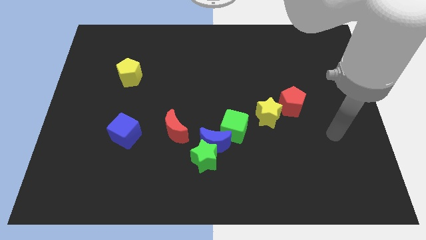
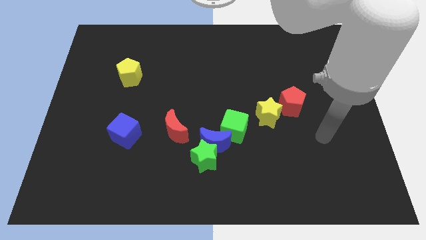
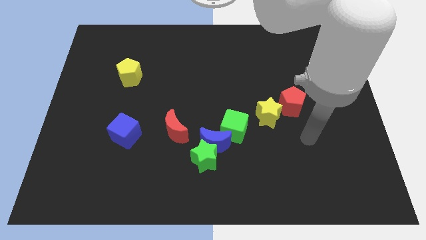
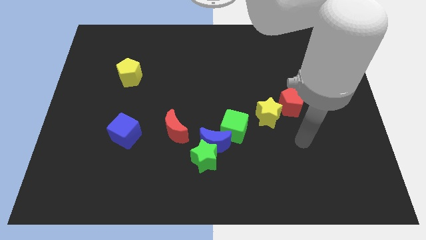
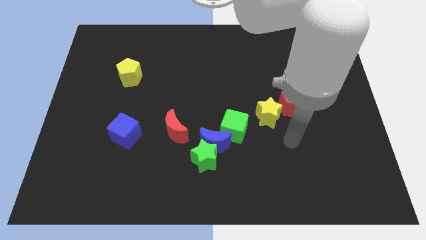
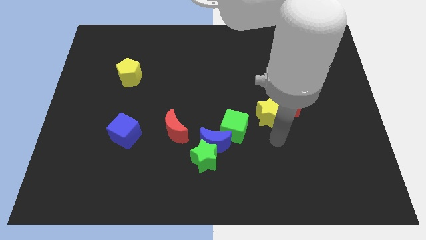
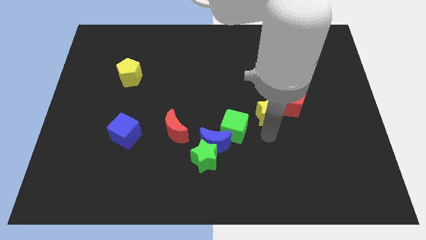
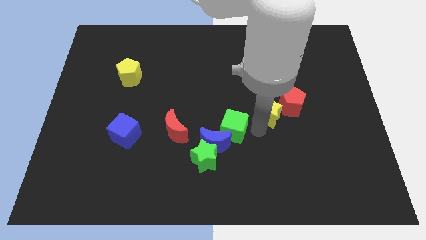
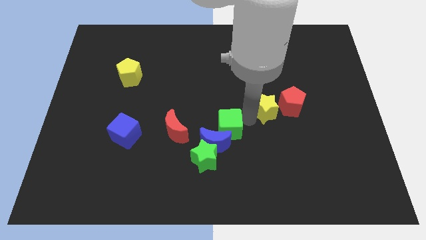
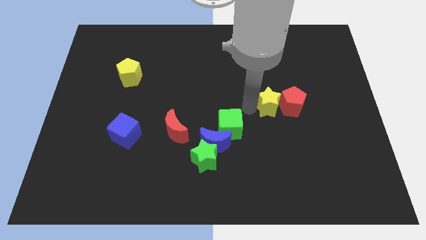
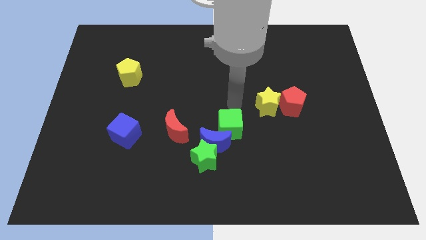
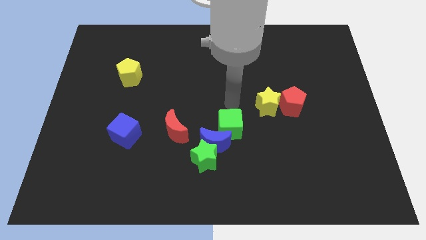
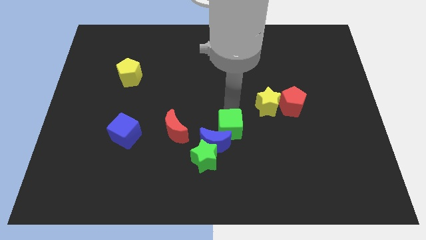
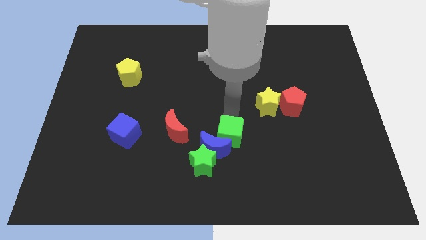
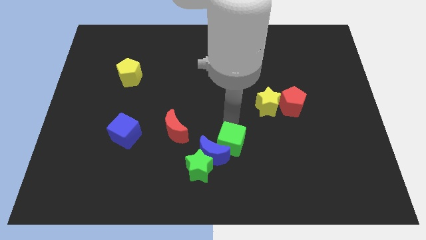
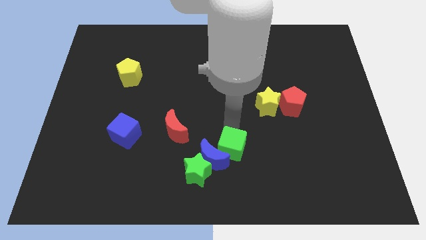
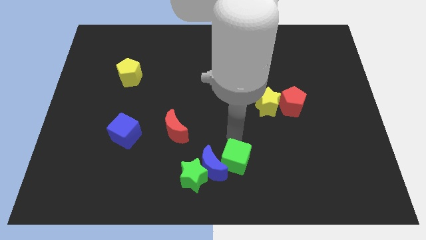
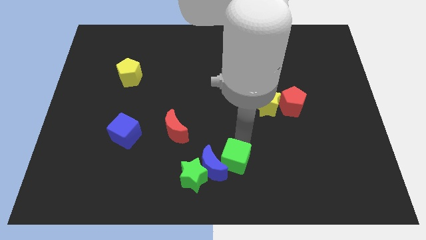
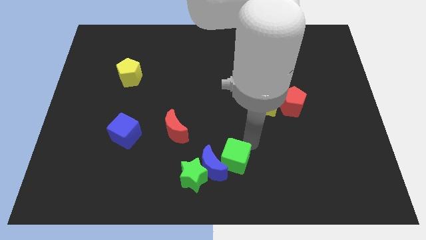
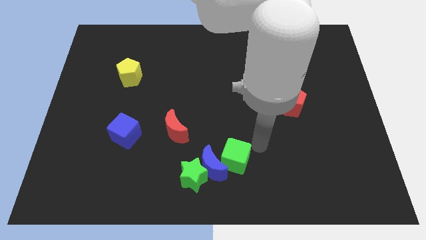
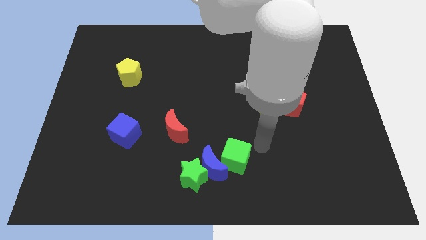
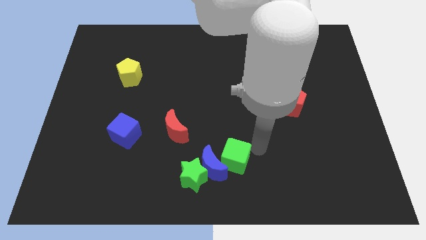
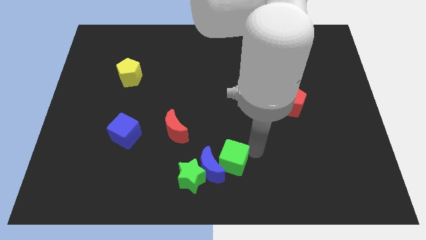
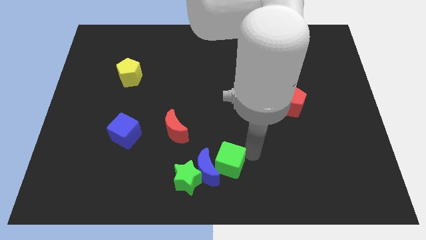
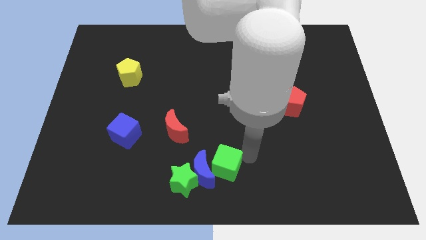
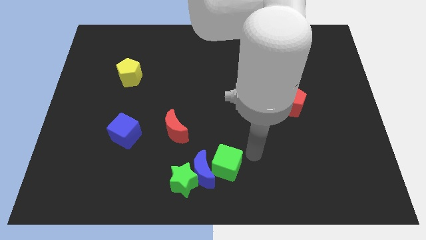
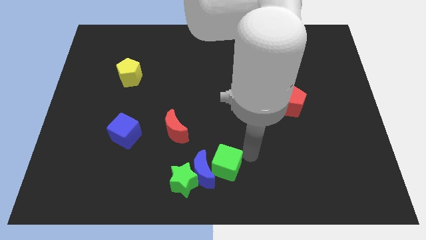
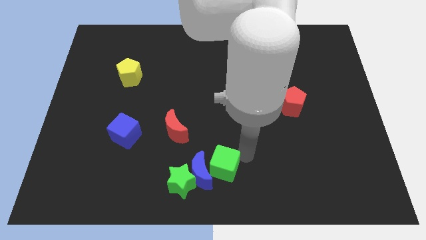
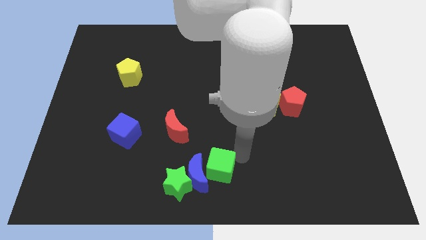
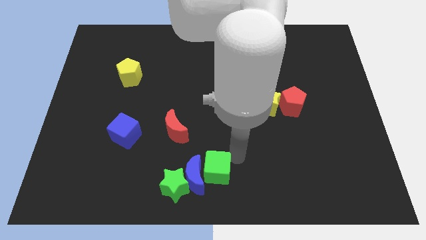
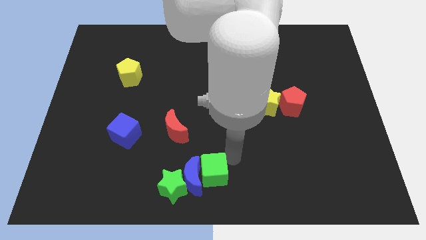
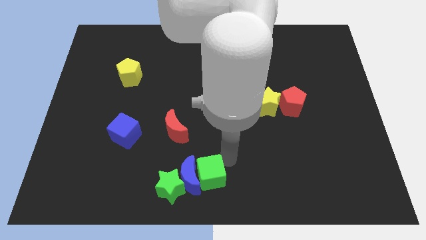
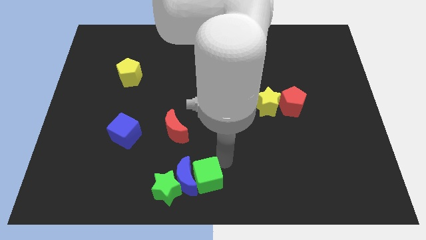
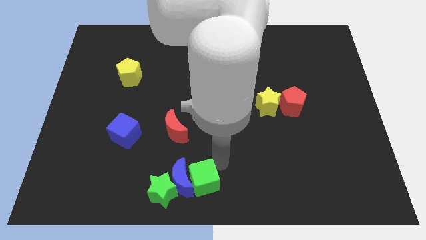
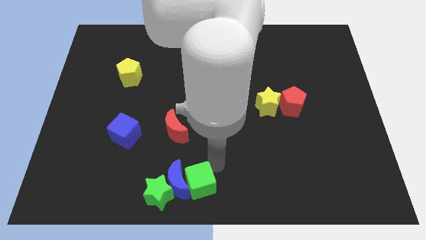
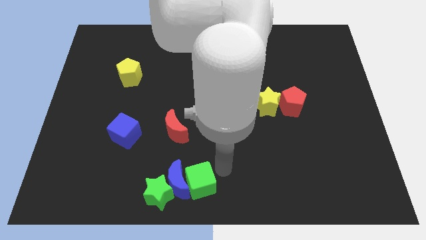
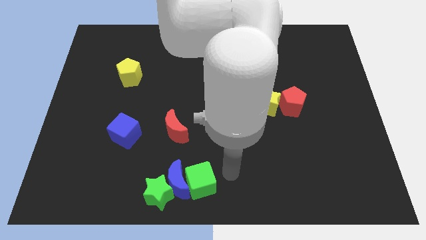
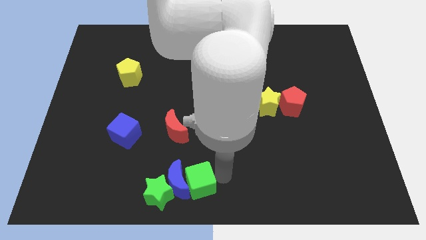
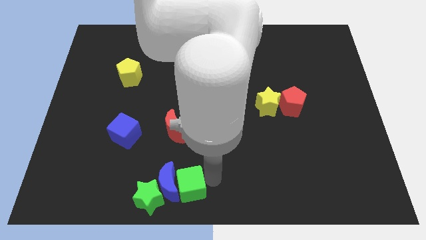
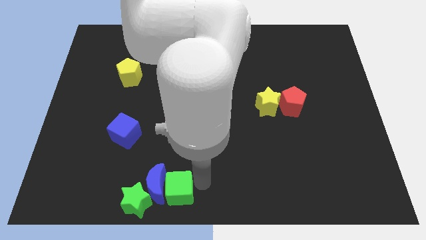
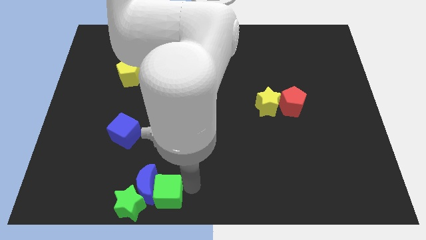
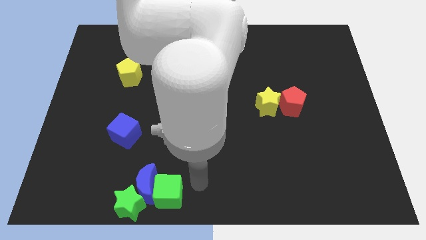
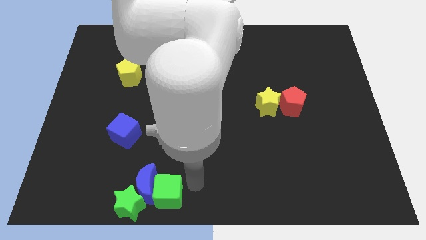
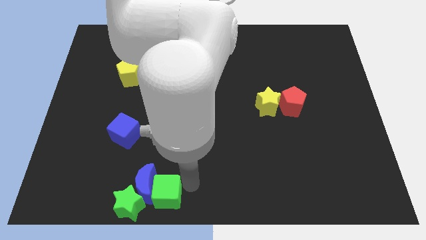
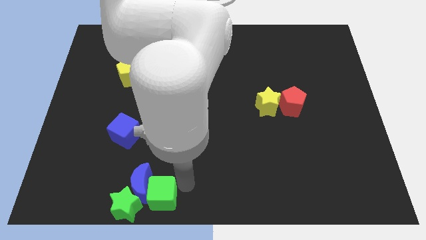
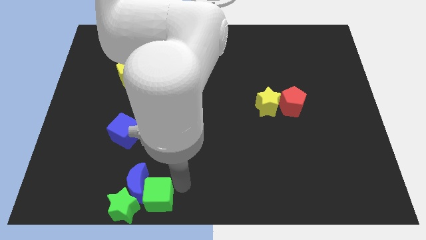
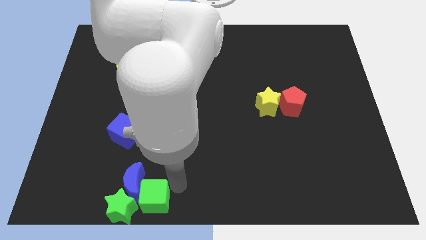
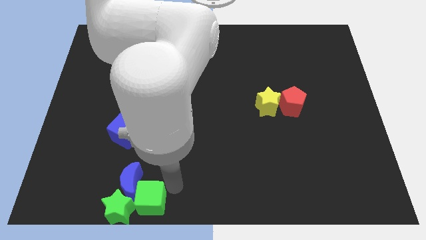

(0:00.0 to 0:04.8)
move the green cube next to the green star

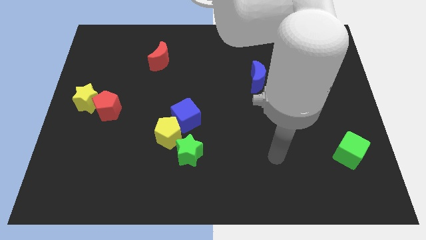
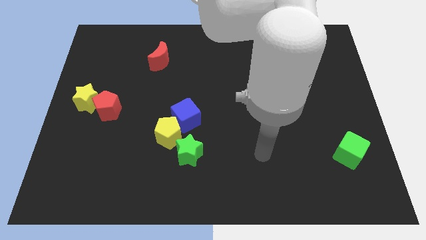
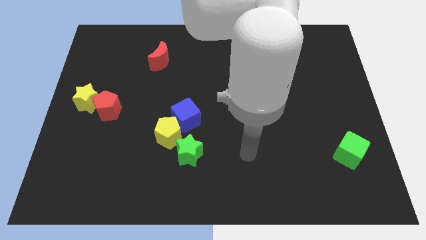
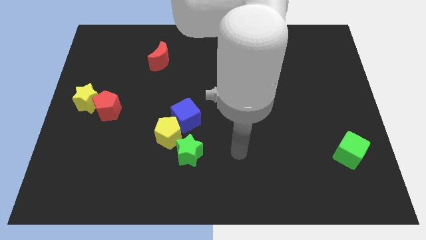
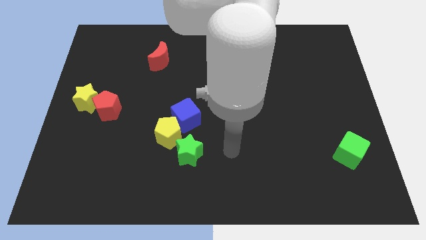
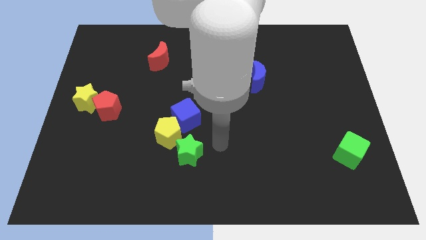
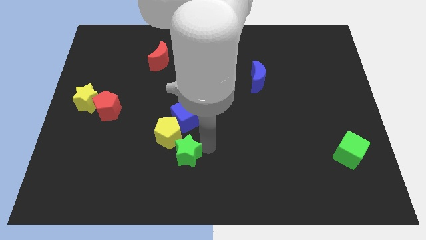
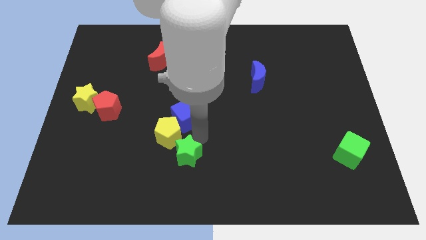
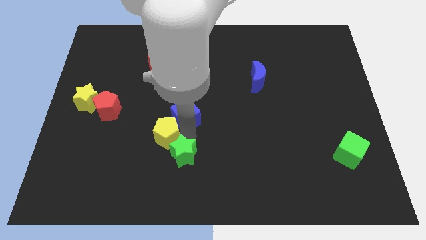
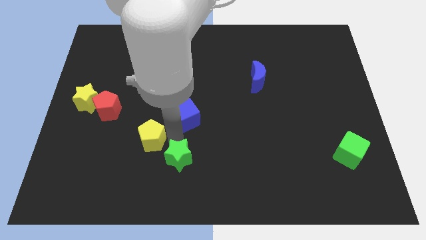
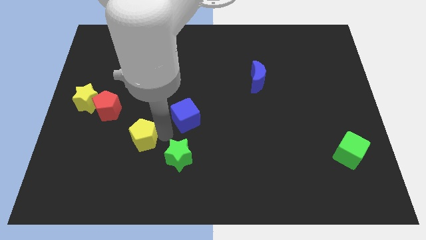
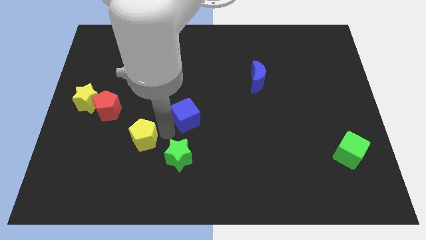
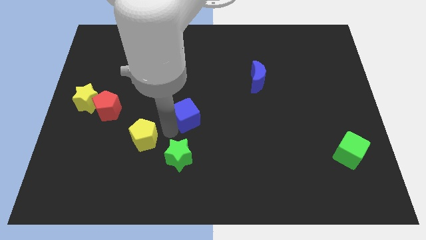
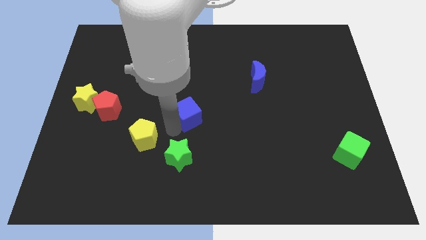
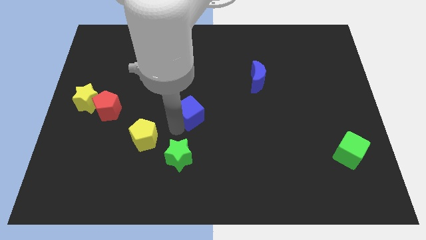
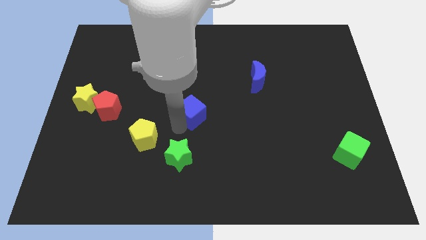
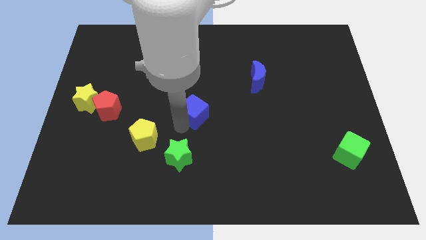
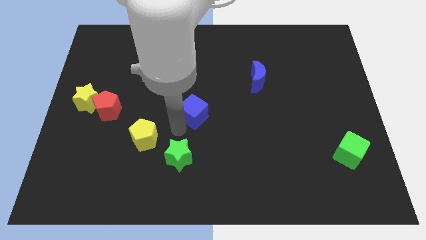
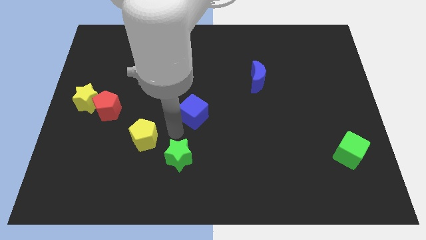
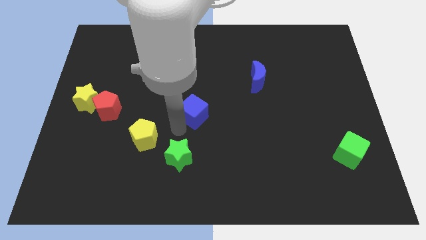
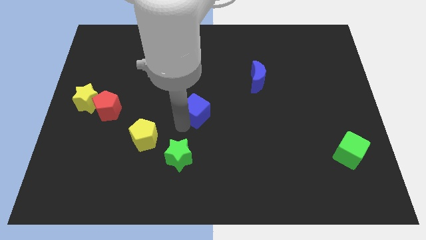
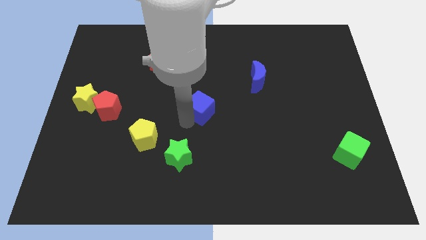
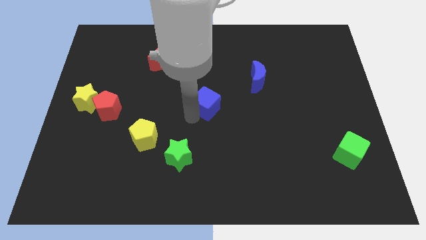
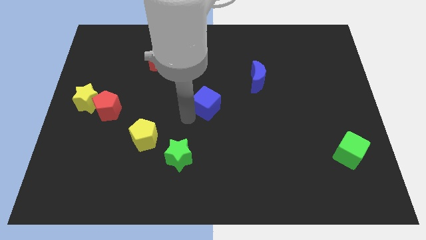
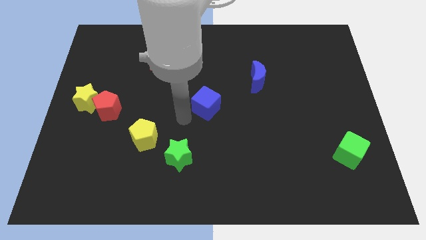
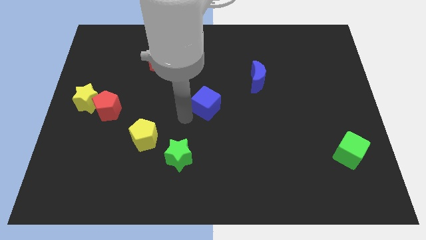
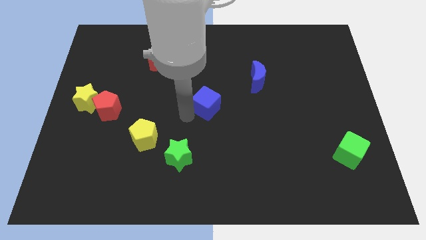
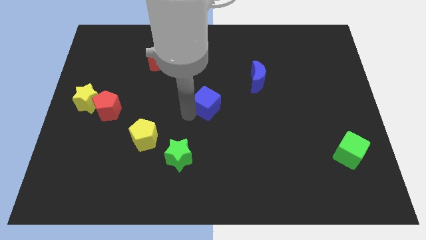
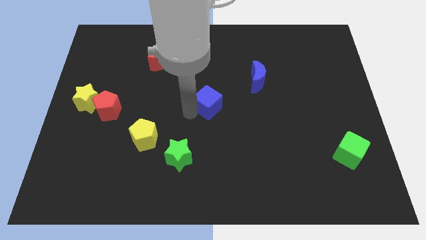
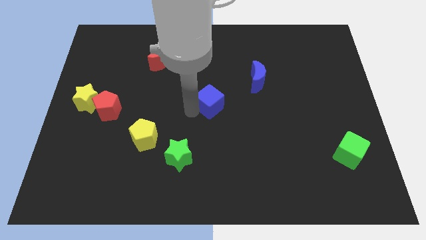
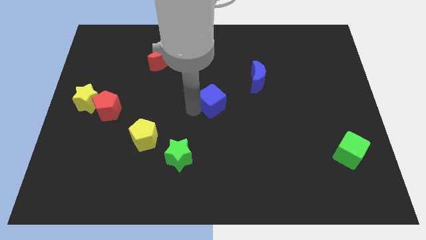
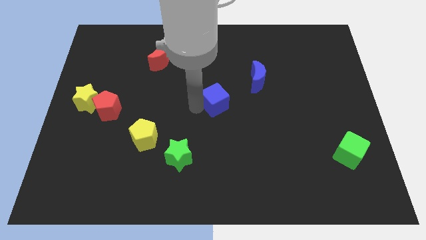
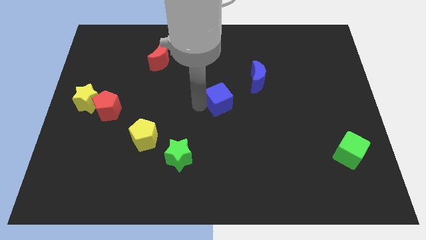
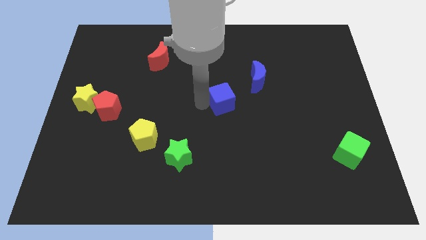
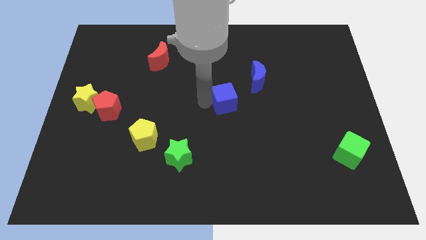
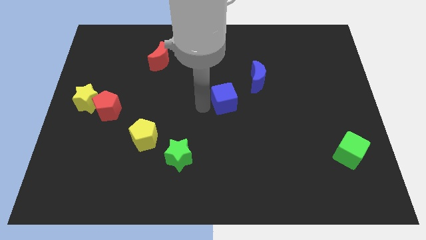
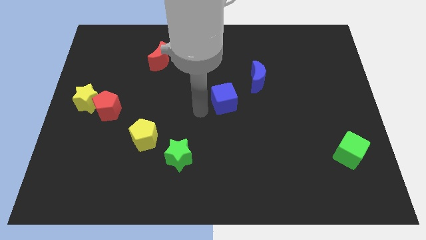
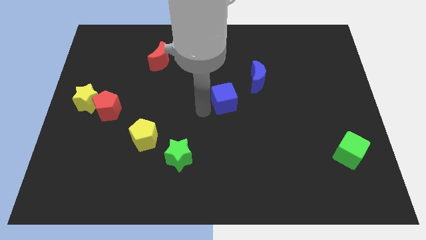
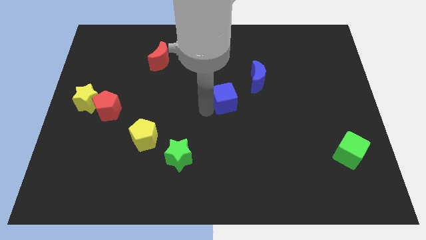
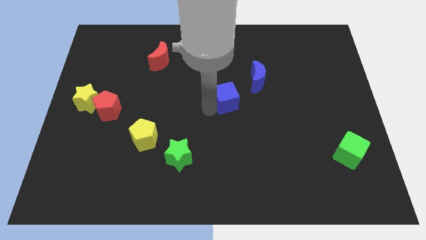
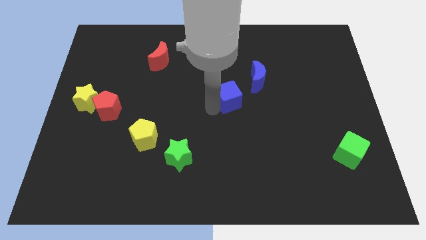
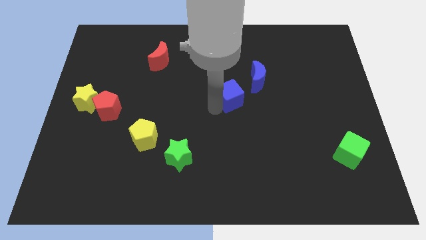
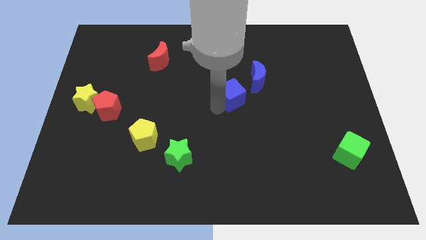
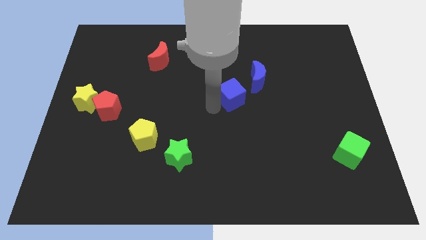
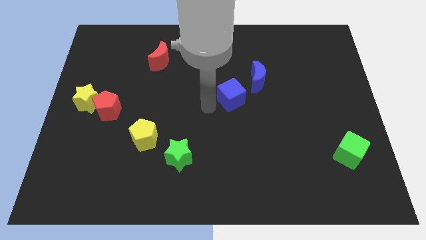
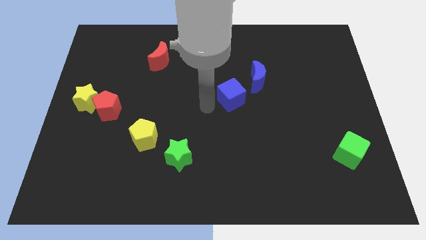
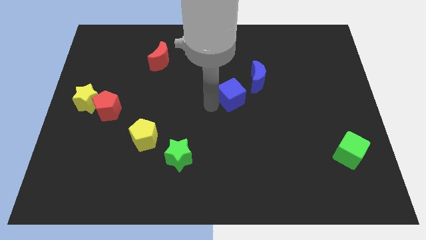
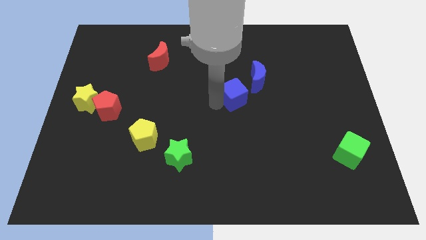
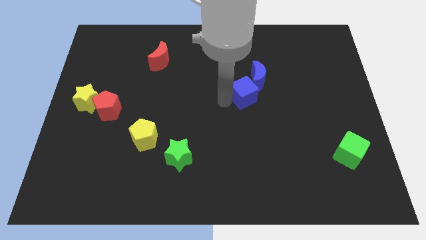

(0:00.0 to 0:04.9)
put the blue cube towards the blue moon
